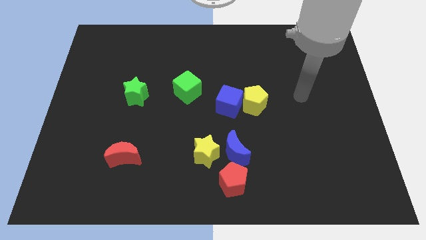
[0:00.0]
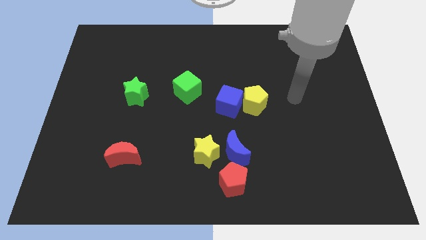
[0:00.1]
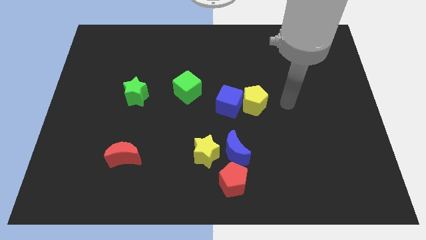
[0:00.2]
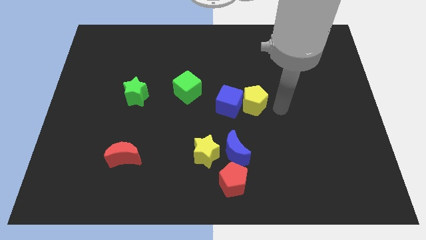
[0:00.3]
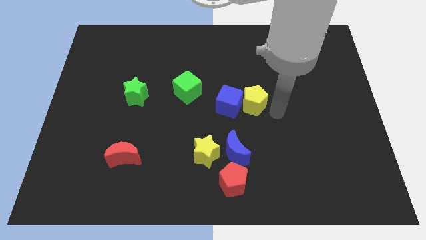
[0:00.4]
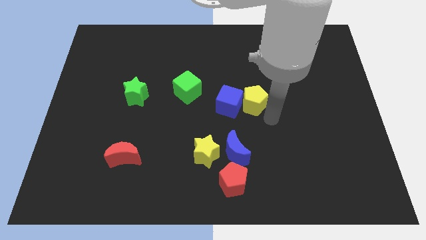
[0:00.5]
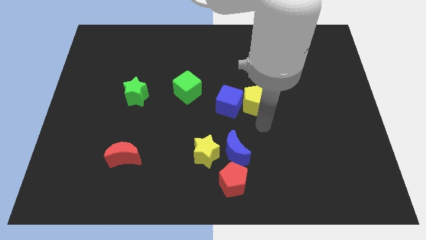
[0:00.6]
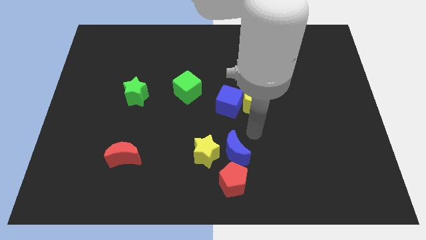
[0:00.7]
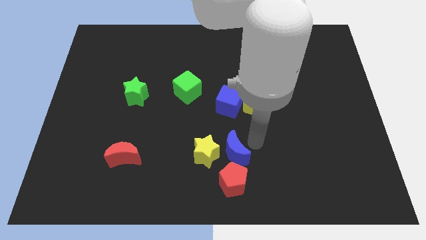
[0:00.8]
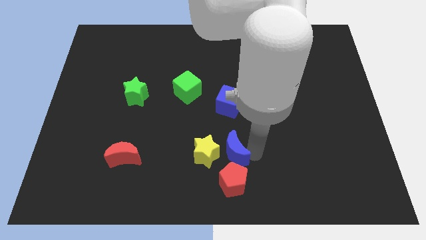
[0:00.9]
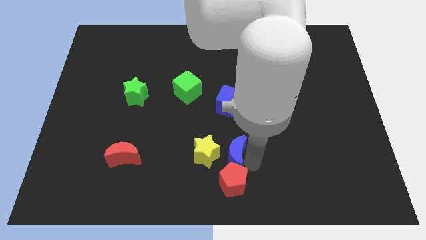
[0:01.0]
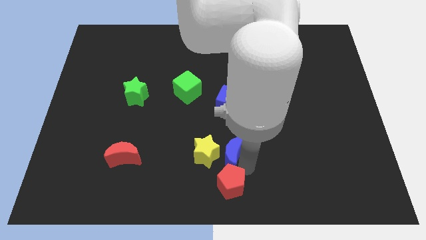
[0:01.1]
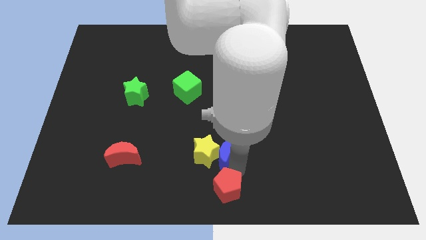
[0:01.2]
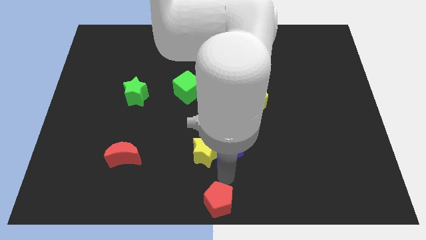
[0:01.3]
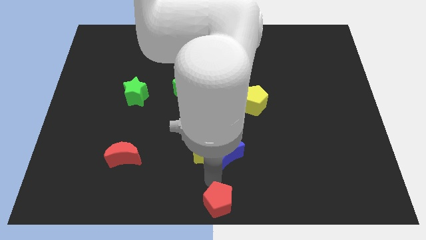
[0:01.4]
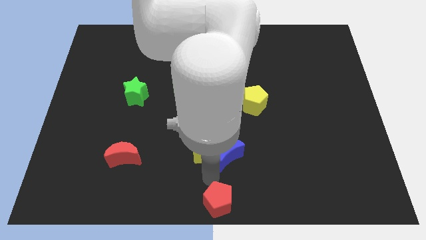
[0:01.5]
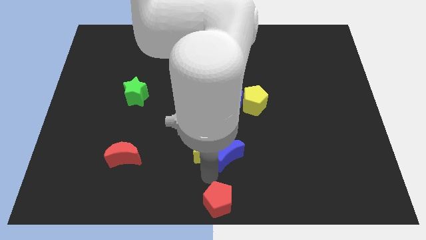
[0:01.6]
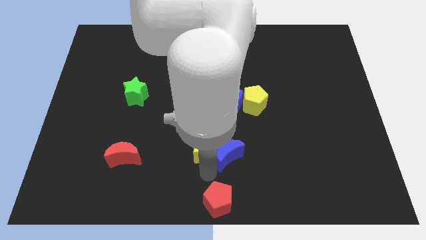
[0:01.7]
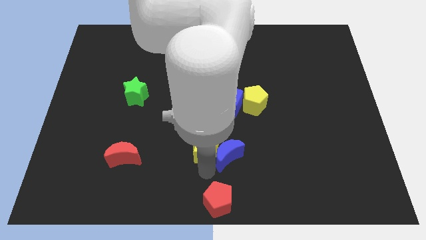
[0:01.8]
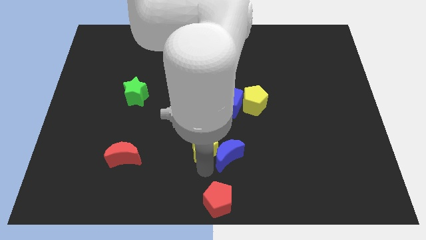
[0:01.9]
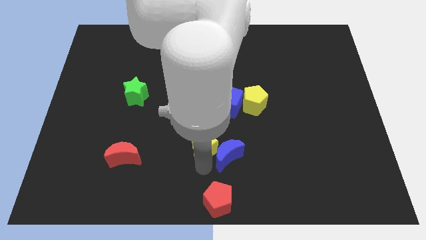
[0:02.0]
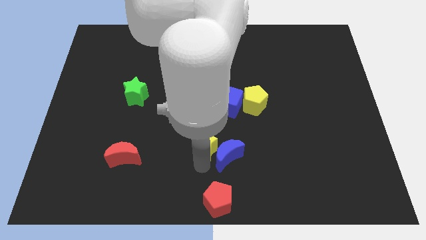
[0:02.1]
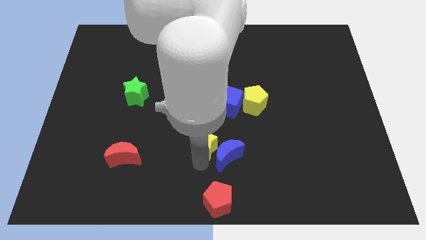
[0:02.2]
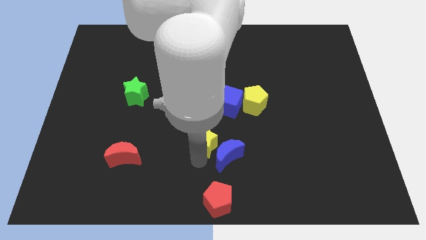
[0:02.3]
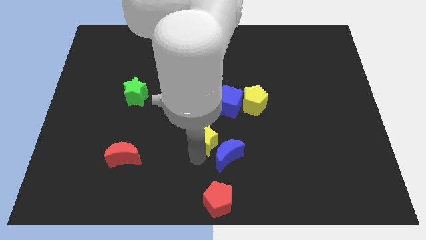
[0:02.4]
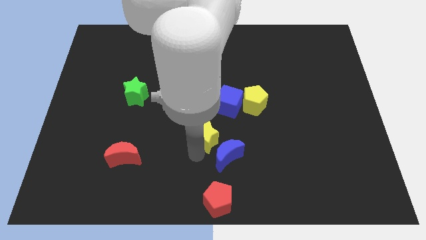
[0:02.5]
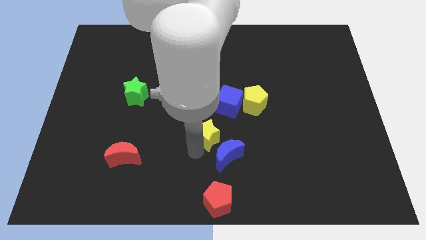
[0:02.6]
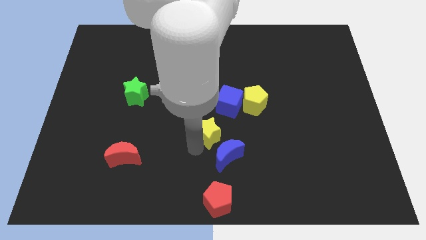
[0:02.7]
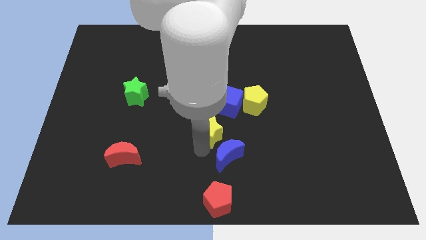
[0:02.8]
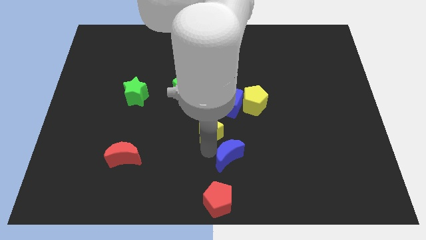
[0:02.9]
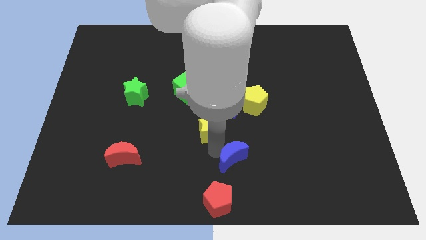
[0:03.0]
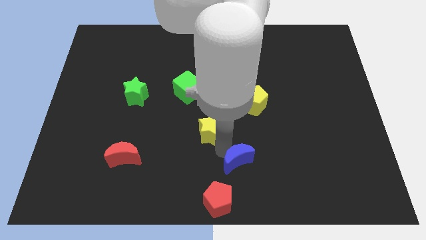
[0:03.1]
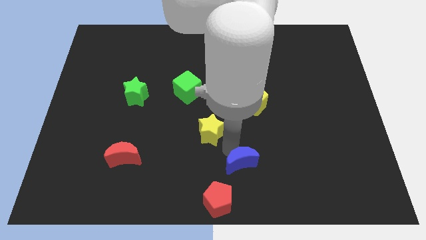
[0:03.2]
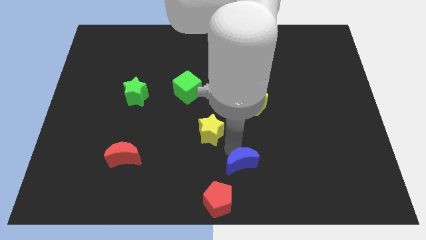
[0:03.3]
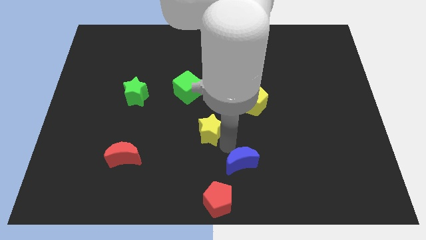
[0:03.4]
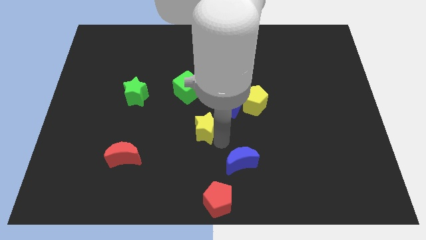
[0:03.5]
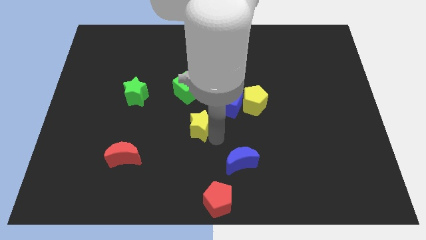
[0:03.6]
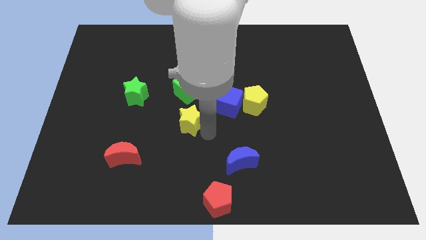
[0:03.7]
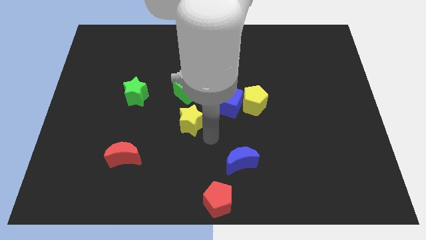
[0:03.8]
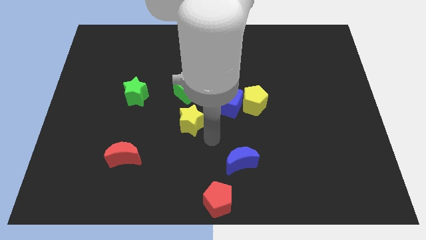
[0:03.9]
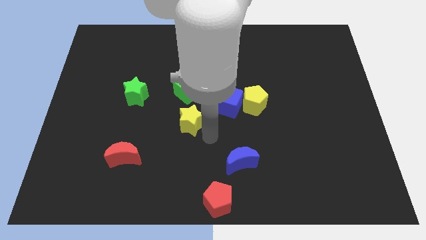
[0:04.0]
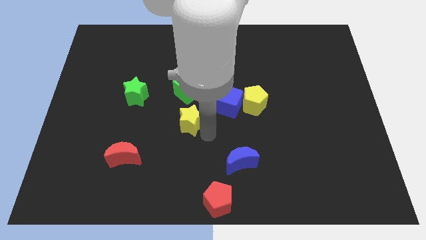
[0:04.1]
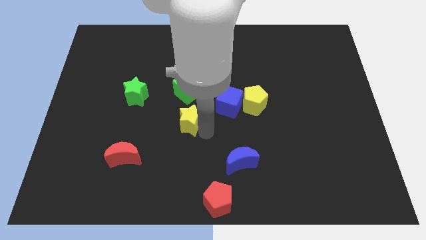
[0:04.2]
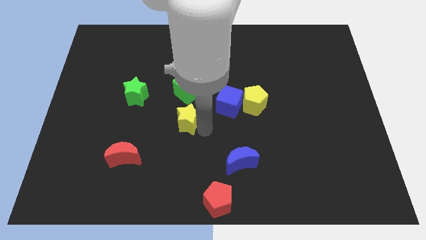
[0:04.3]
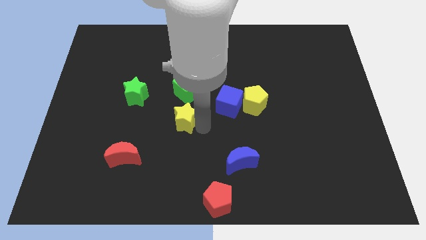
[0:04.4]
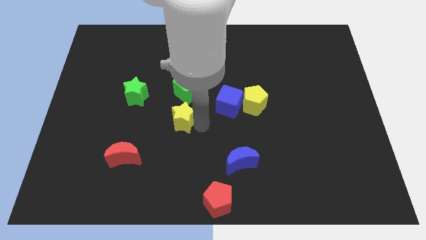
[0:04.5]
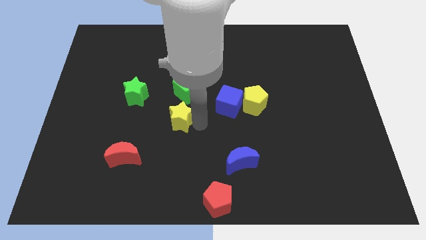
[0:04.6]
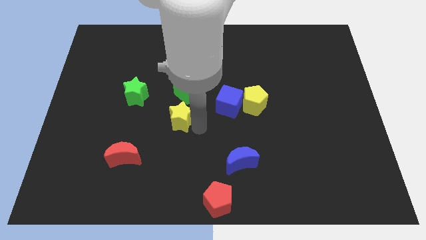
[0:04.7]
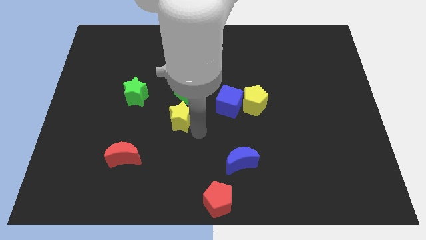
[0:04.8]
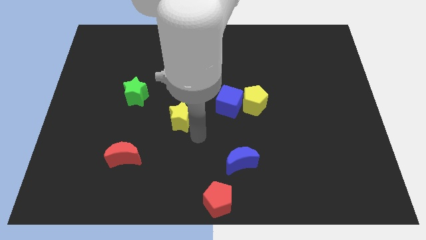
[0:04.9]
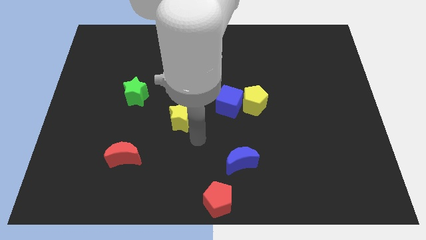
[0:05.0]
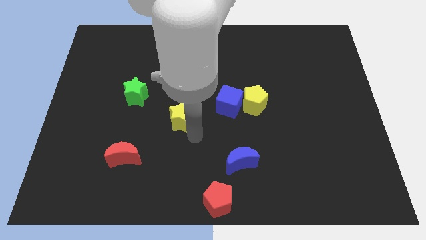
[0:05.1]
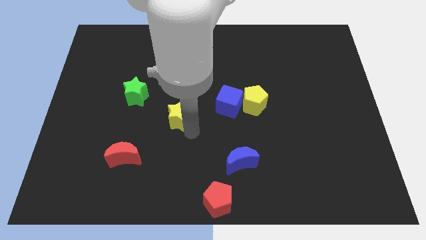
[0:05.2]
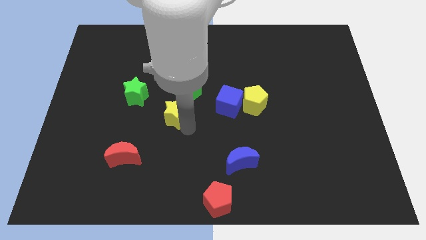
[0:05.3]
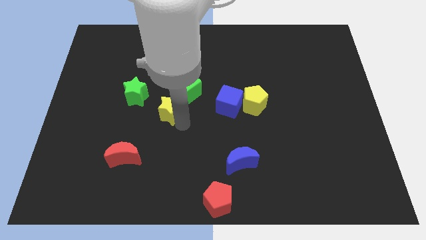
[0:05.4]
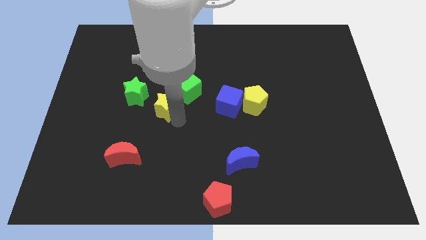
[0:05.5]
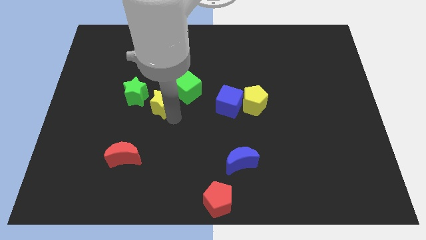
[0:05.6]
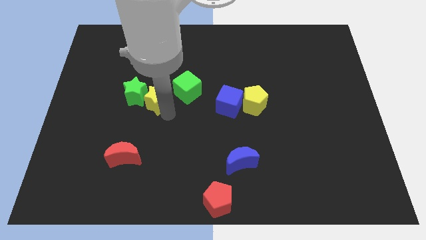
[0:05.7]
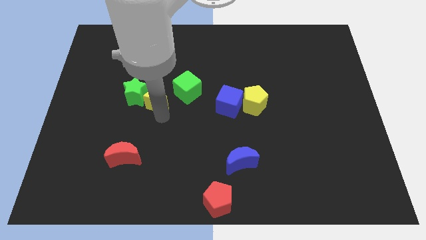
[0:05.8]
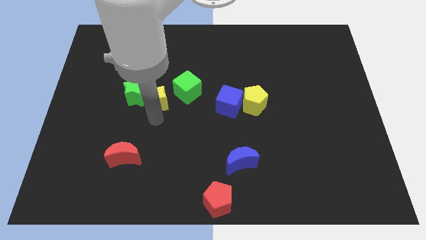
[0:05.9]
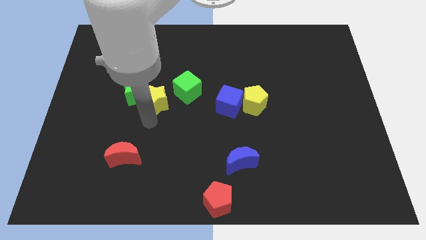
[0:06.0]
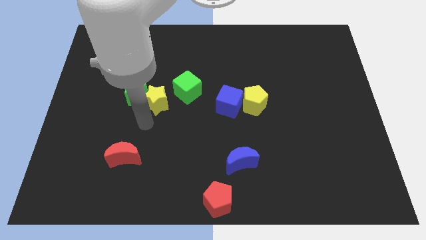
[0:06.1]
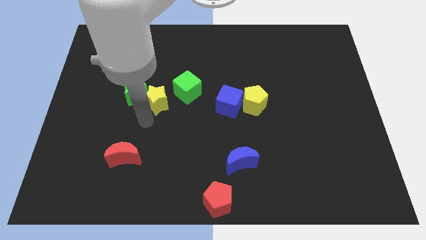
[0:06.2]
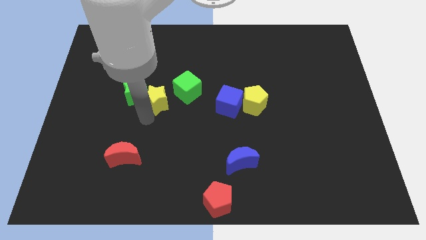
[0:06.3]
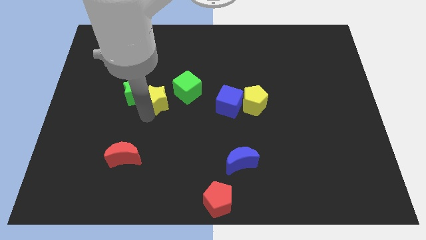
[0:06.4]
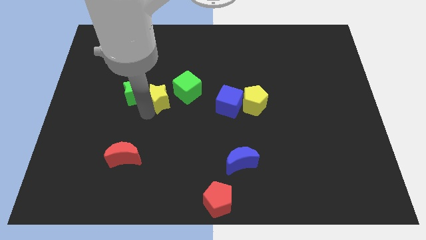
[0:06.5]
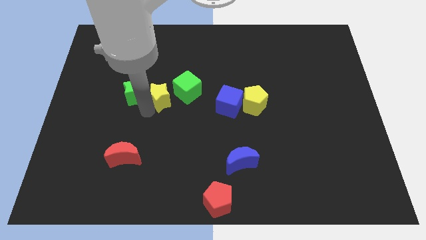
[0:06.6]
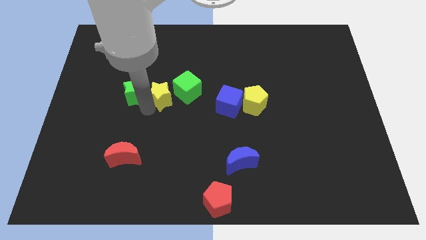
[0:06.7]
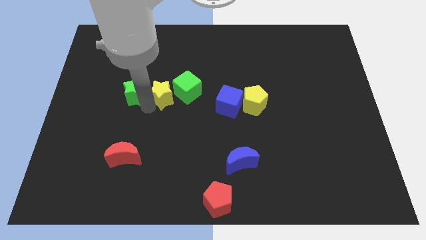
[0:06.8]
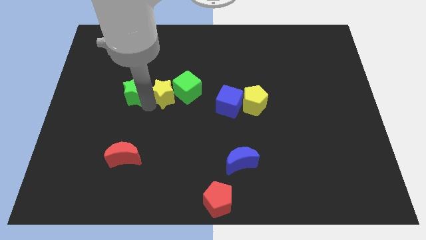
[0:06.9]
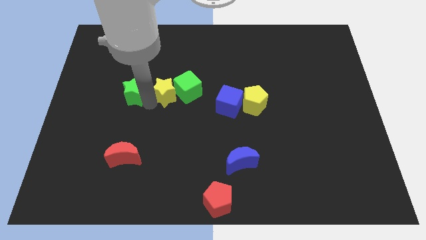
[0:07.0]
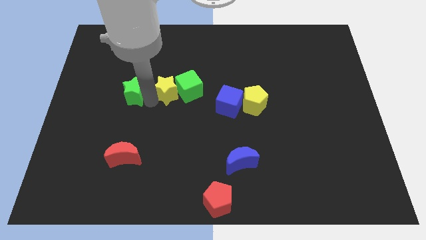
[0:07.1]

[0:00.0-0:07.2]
move the yellow star to the top left of the green cube
